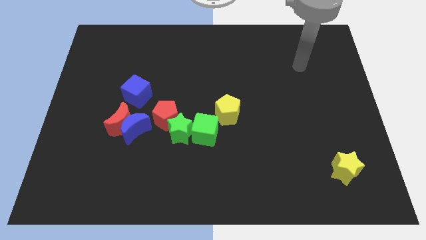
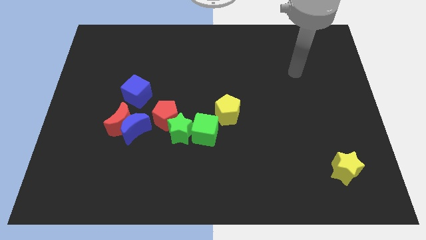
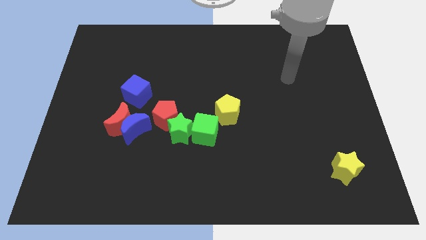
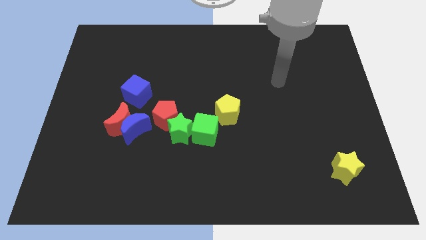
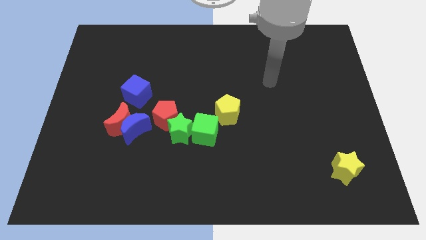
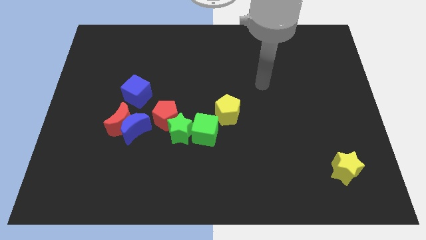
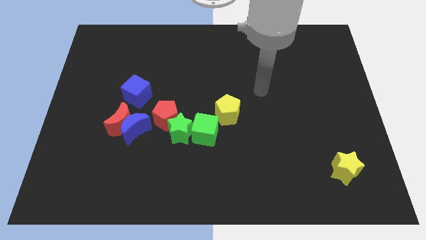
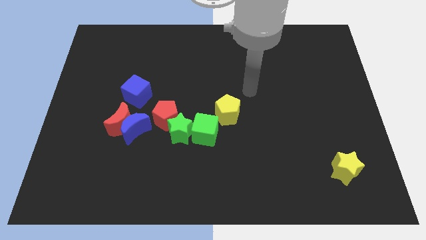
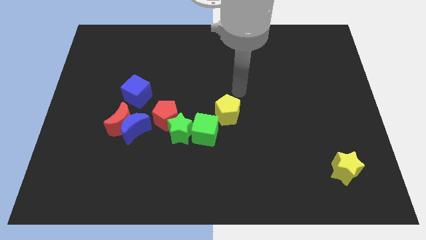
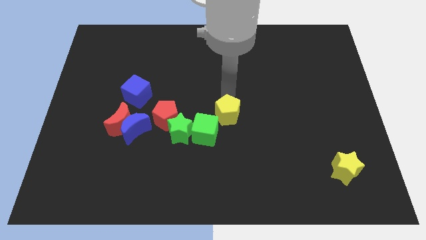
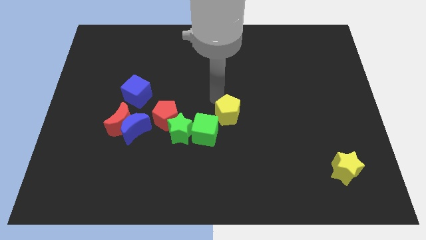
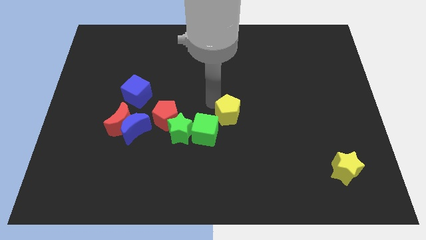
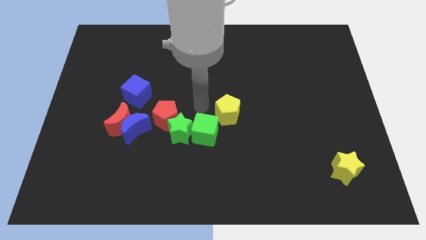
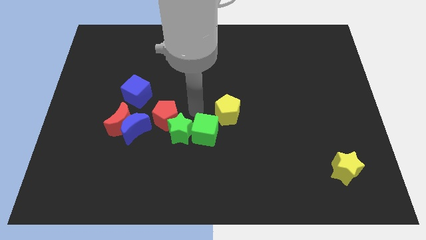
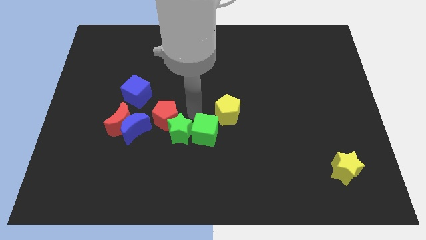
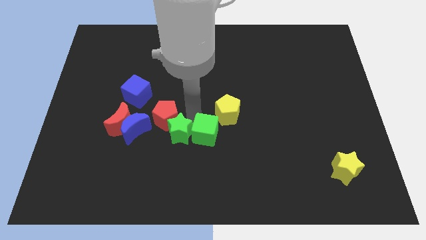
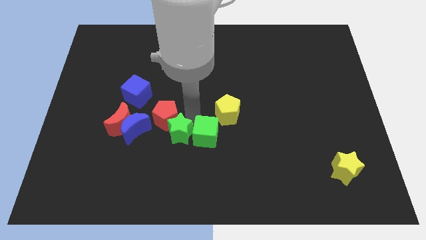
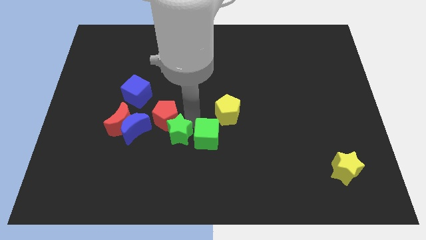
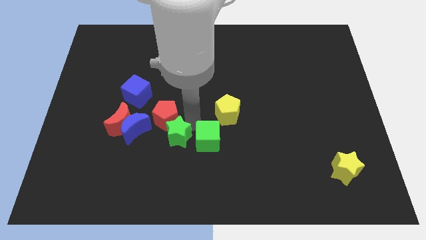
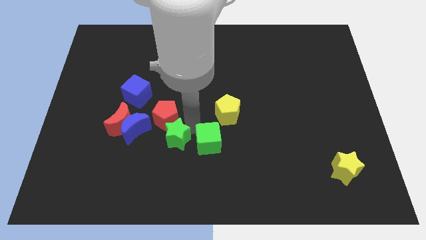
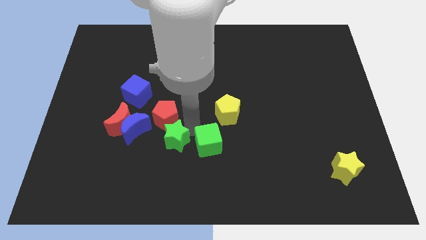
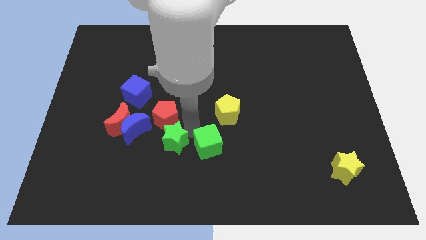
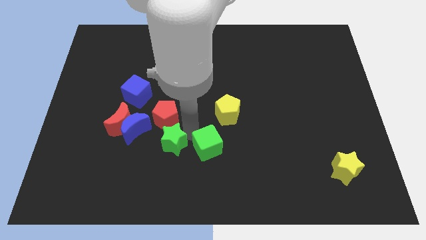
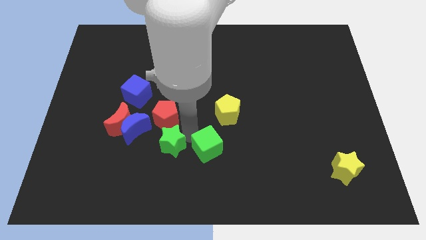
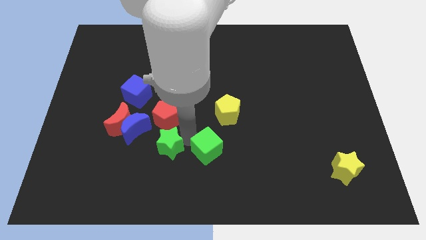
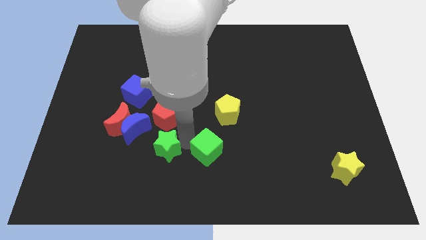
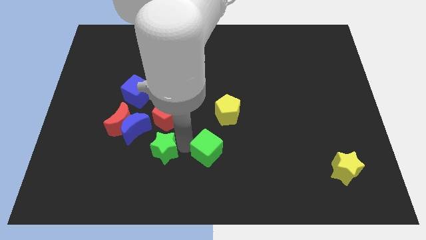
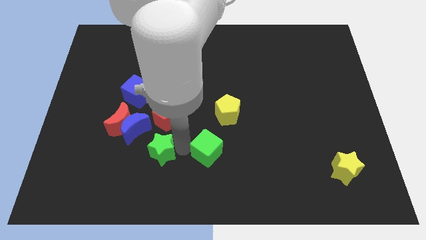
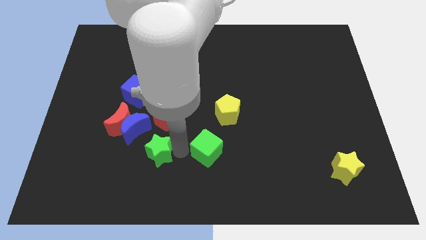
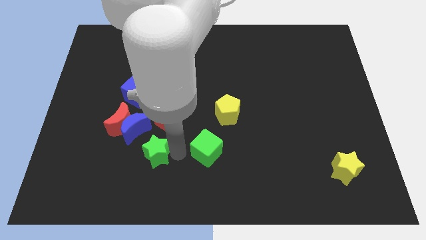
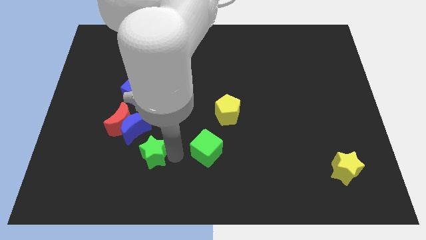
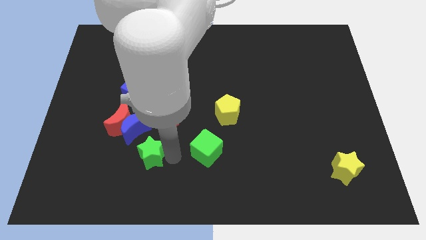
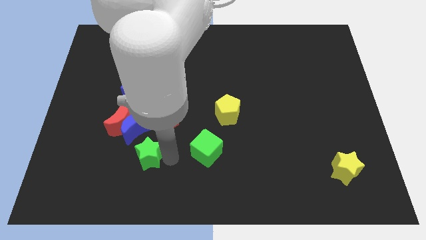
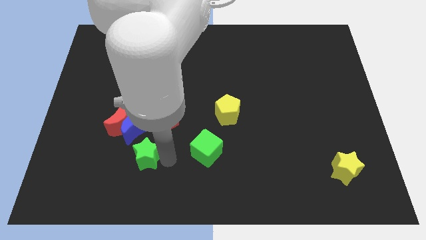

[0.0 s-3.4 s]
separate the green star from the red pentagon and green cube

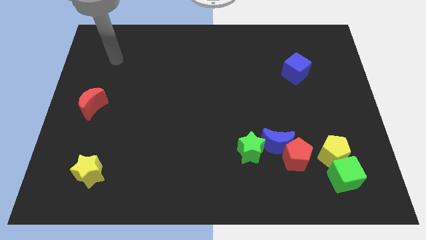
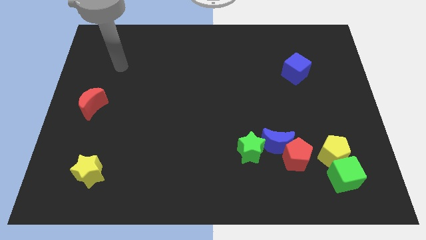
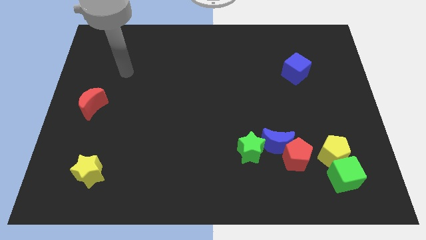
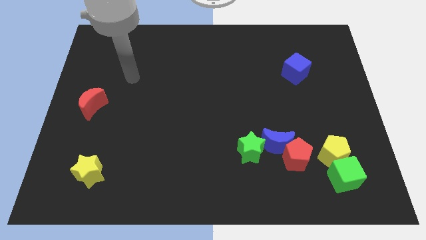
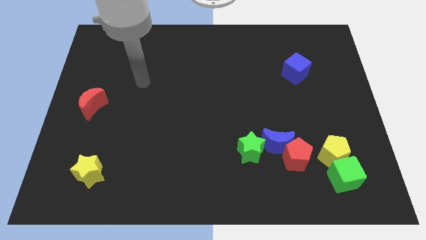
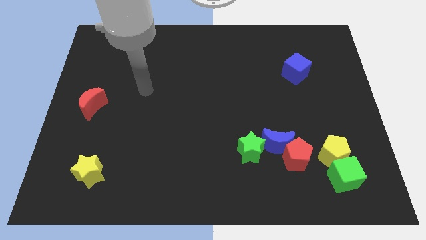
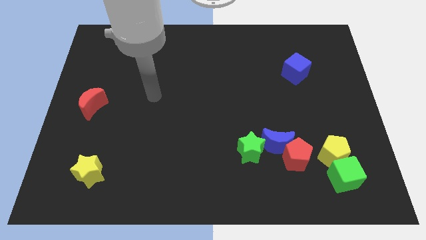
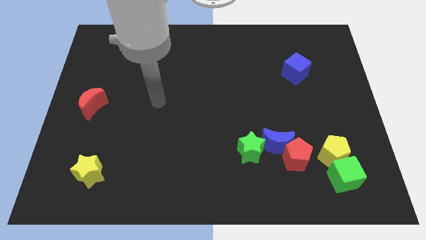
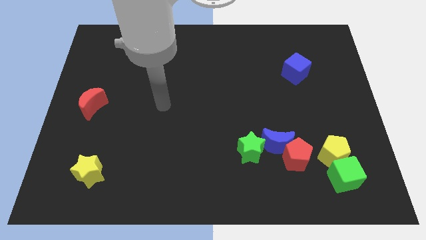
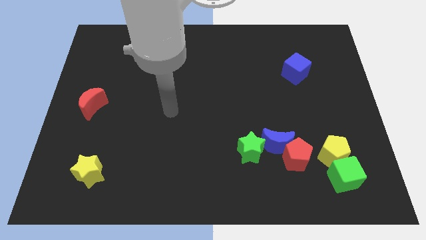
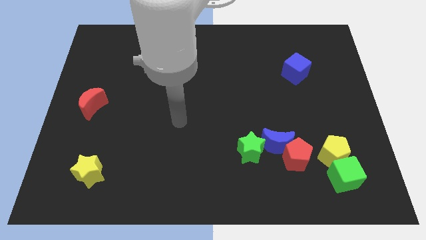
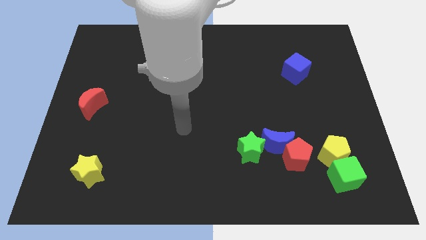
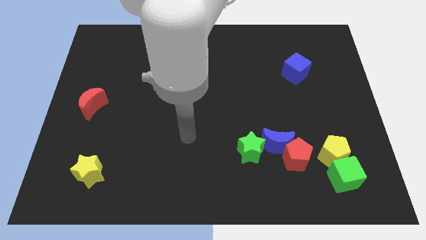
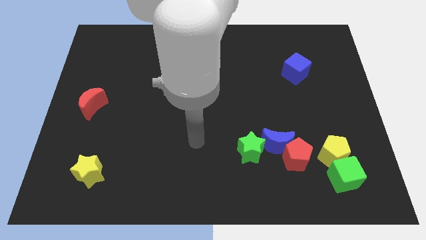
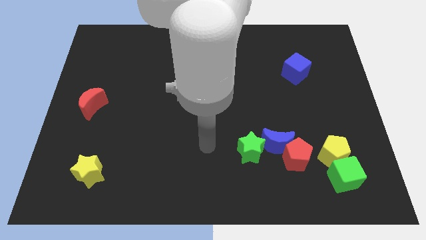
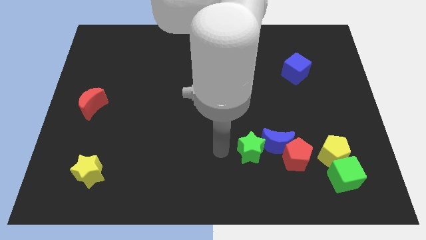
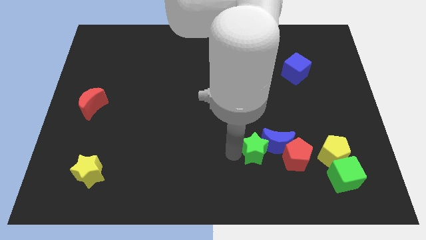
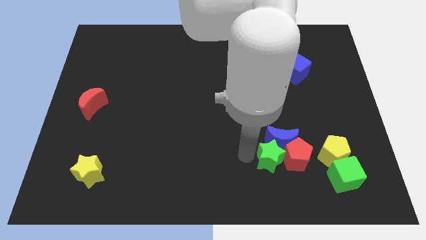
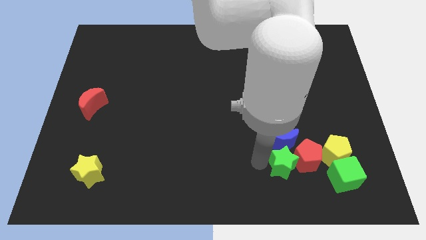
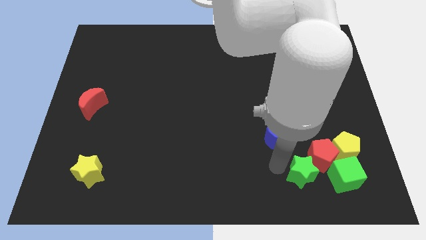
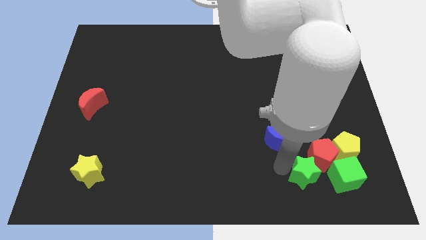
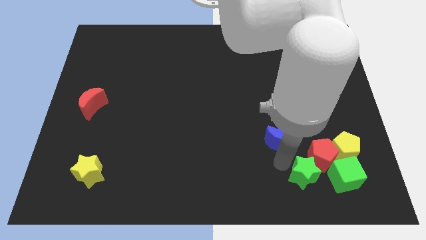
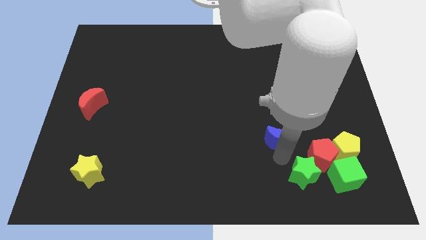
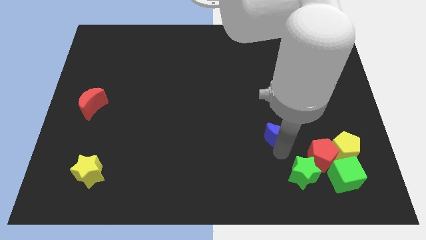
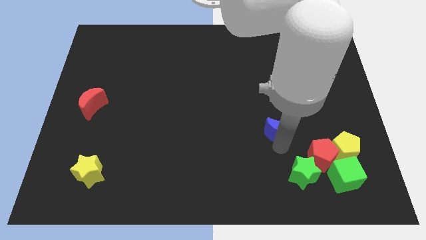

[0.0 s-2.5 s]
separate the blue moon from the red pentagon and green star

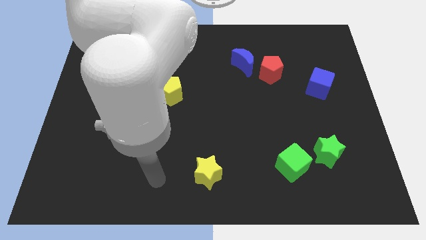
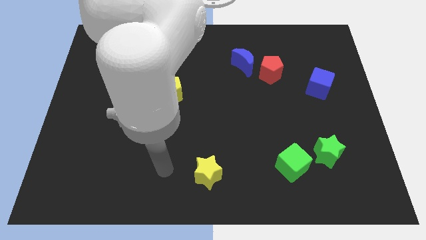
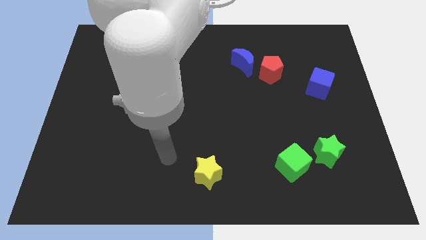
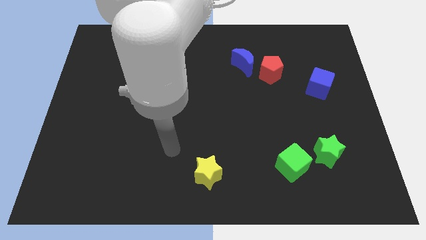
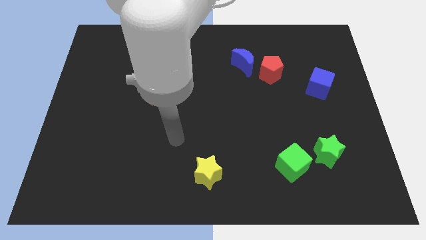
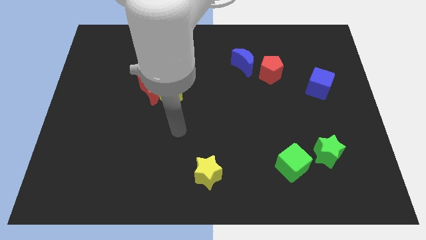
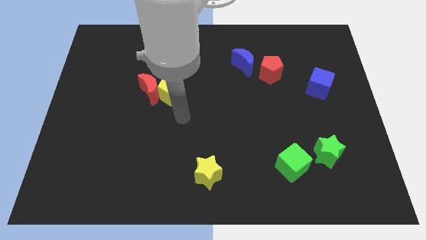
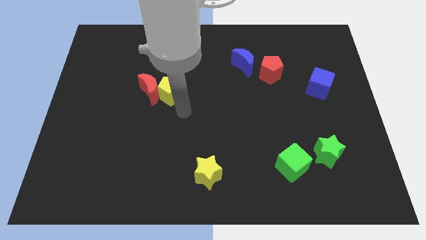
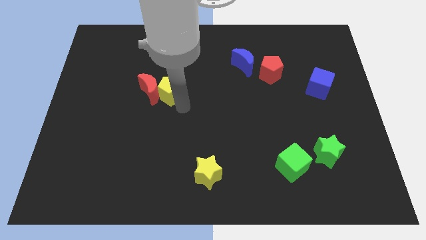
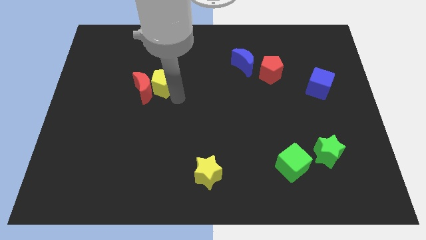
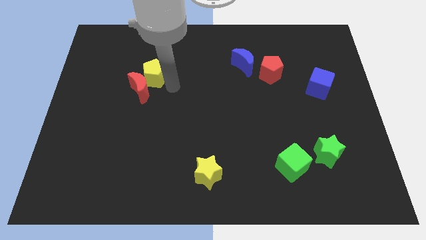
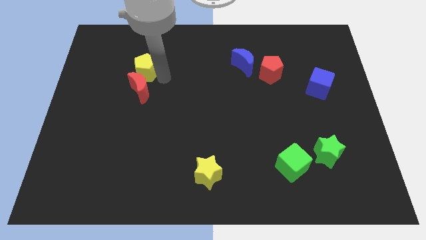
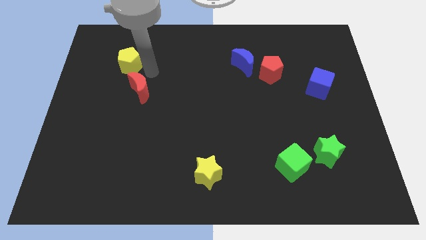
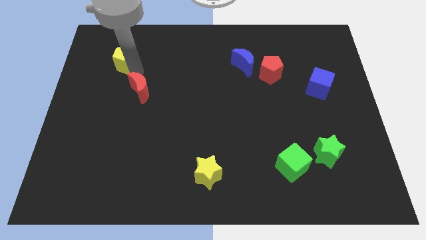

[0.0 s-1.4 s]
move the red moon away from the yellow pentagon

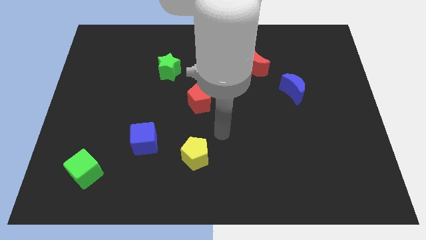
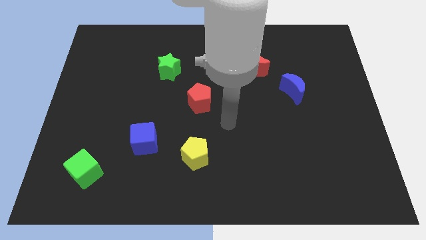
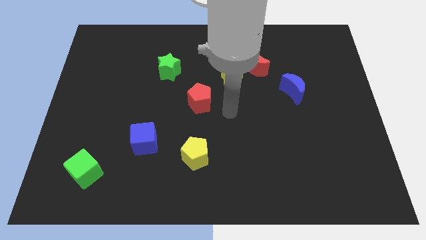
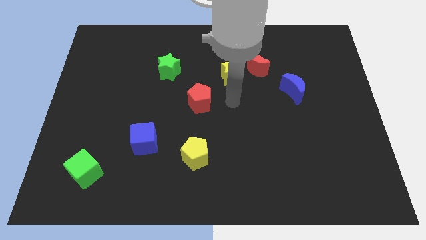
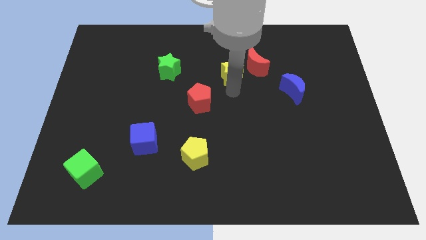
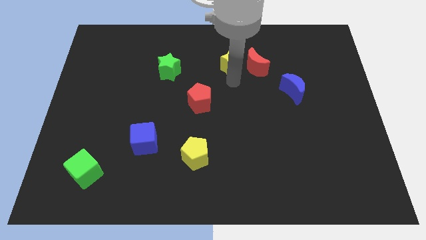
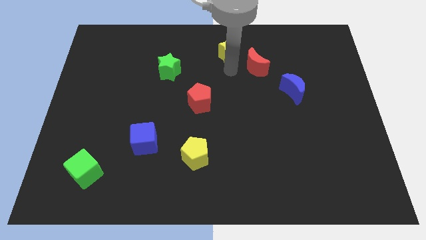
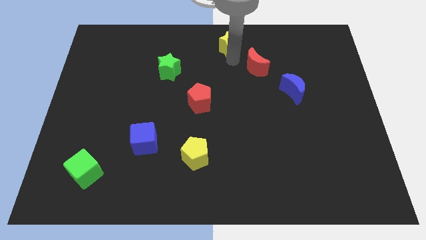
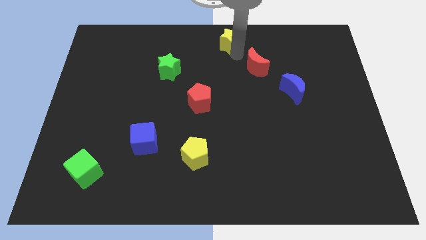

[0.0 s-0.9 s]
separate the red moon from the yellow star

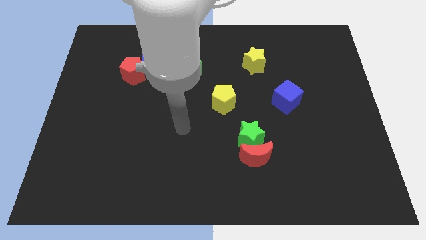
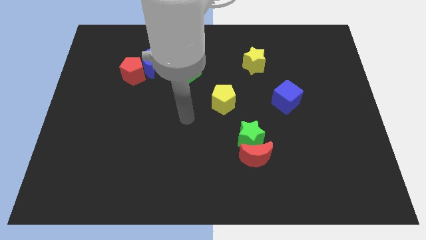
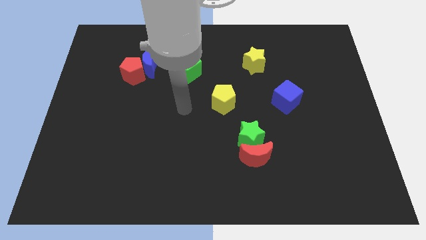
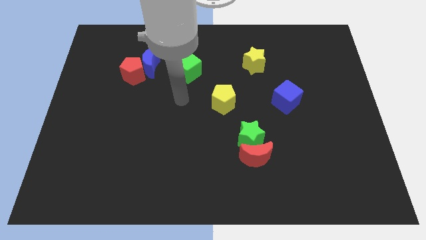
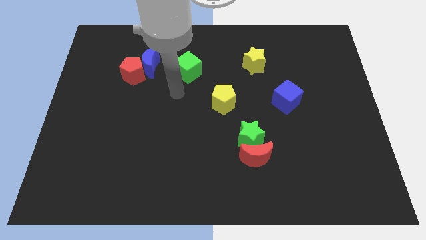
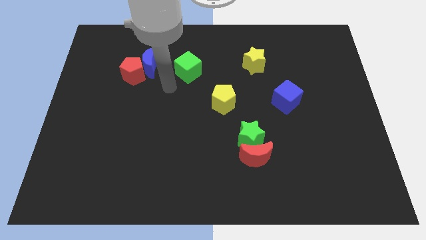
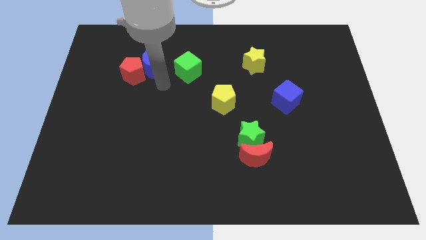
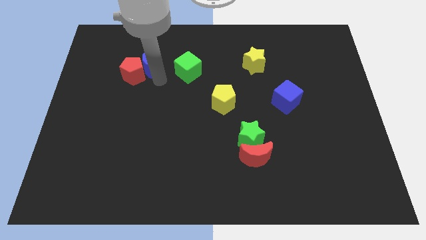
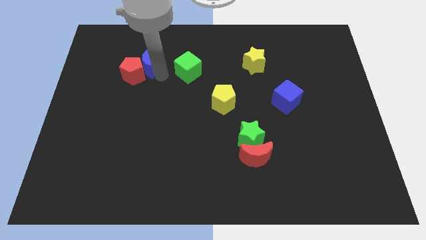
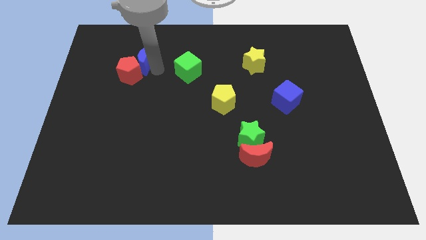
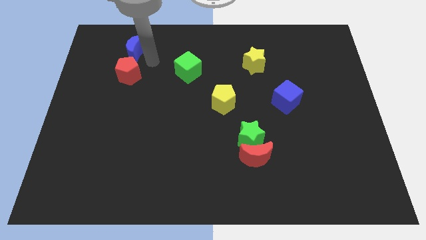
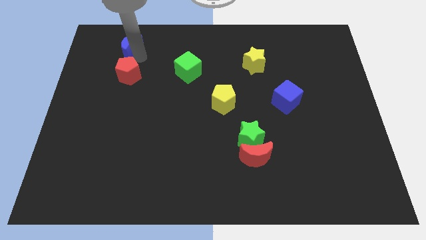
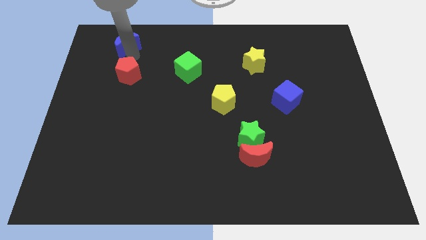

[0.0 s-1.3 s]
separate the red pentagon from the blue moon
